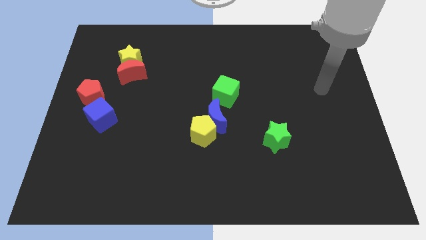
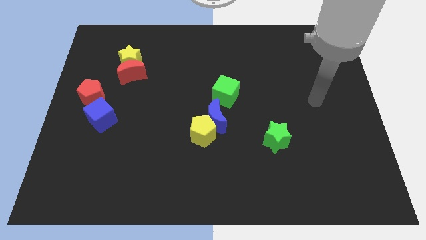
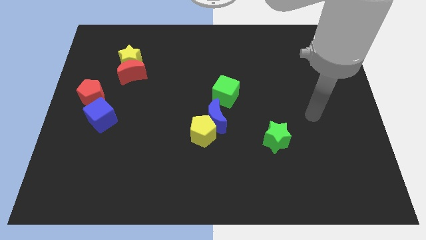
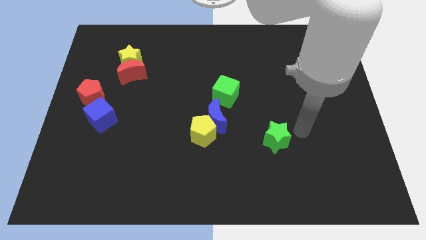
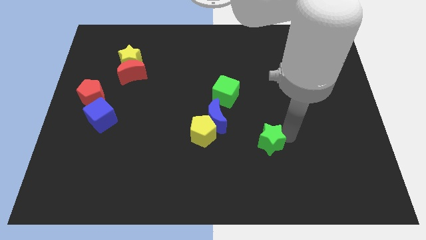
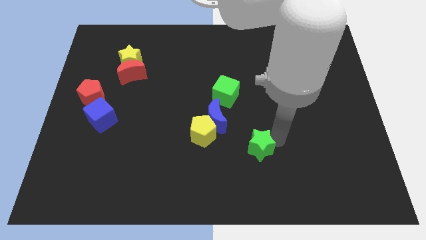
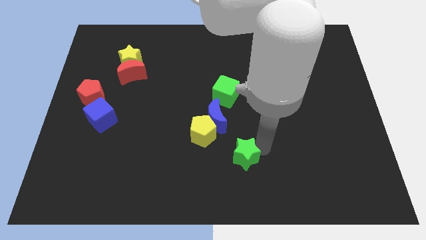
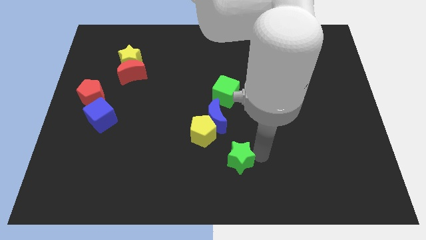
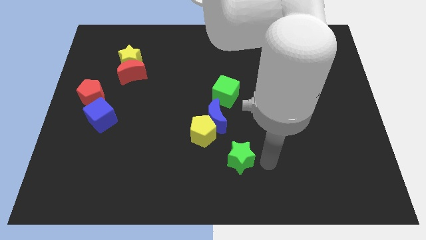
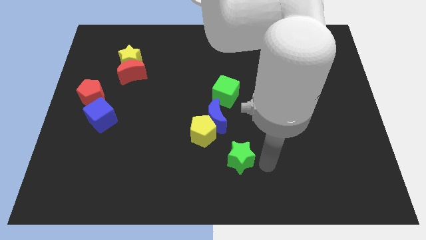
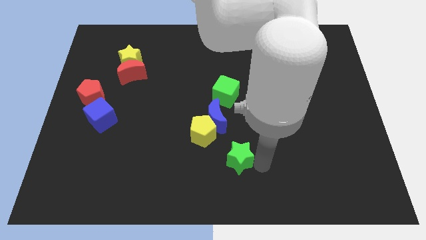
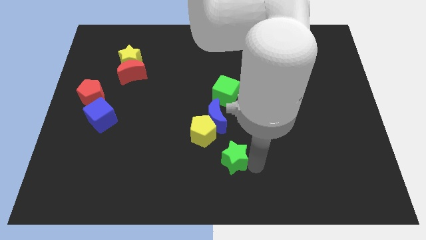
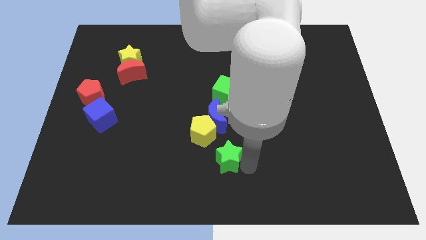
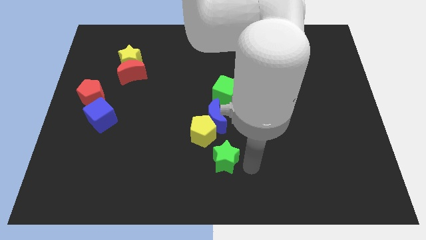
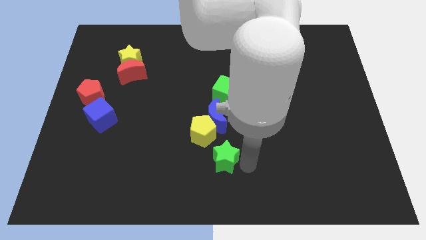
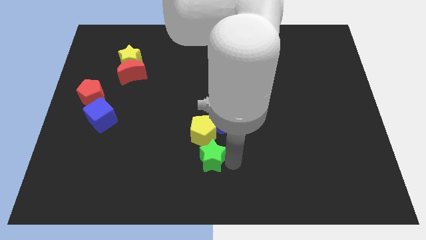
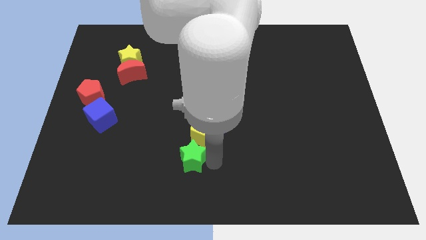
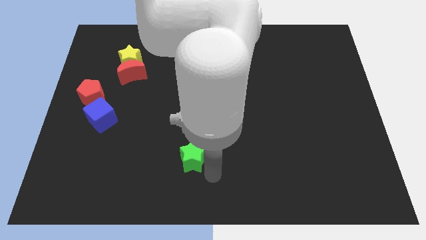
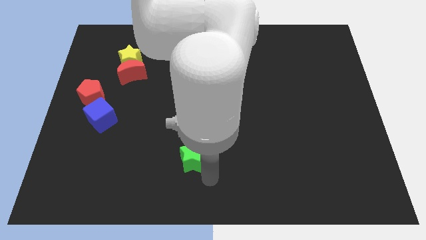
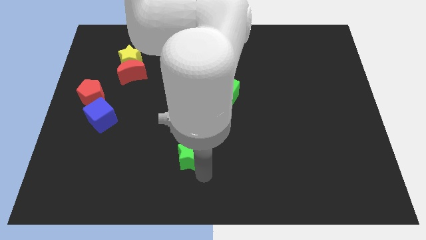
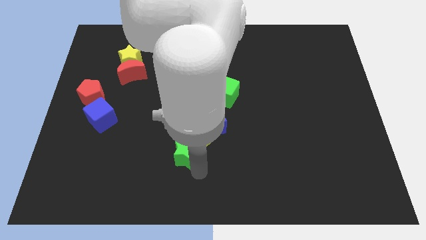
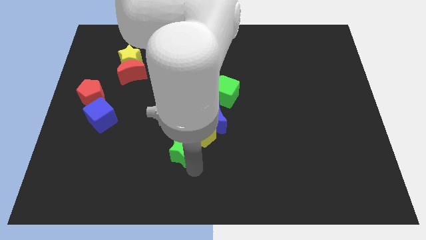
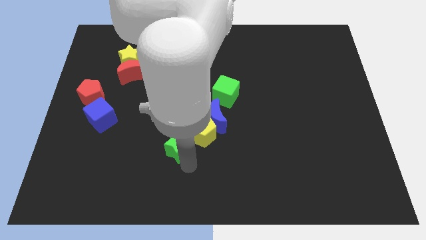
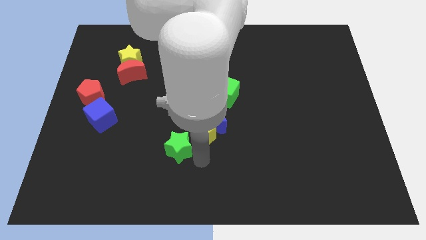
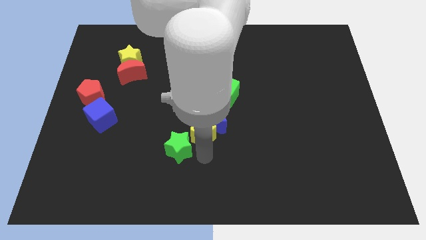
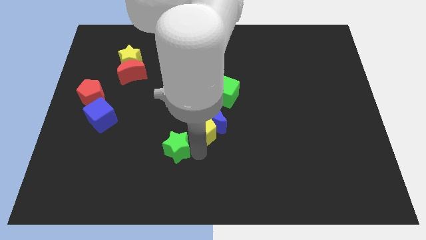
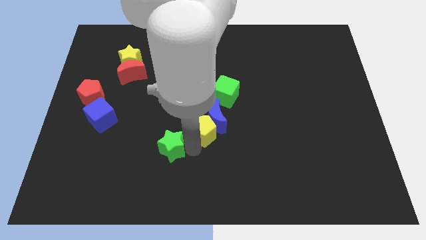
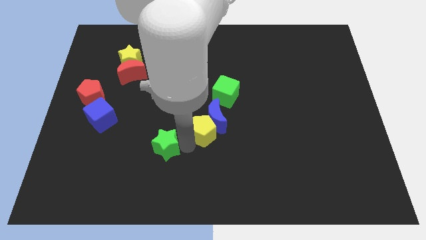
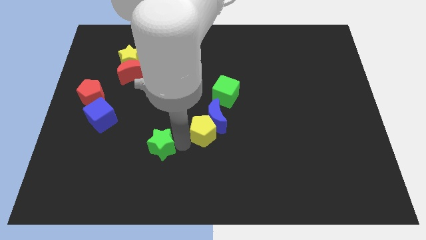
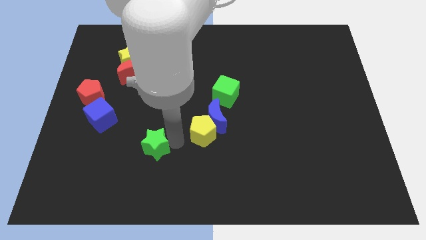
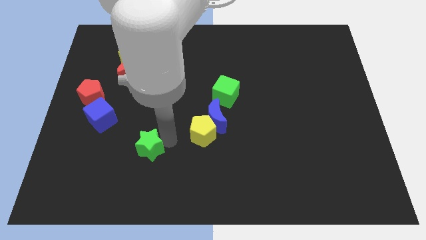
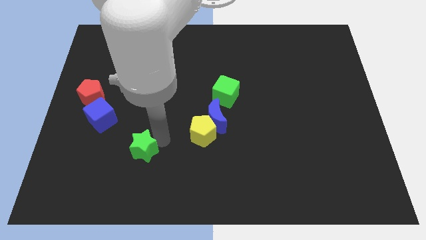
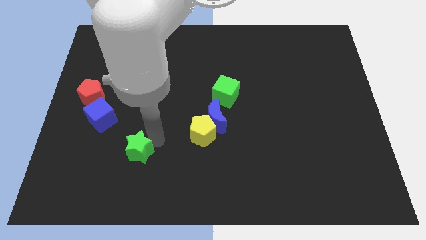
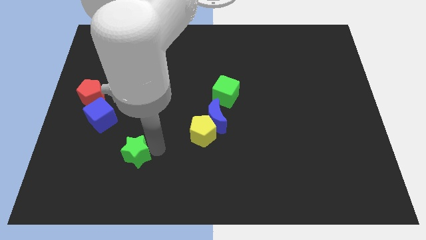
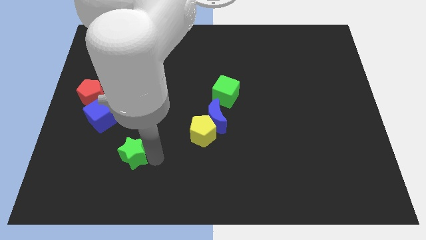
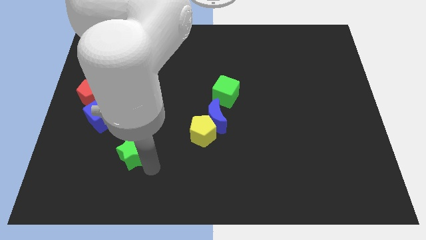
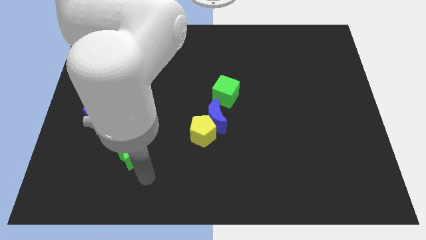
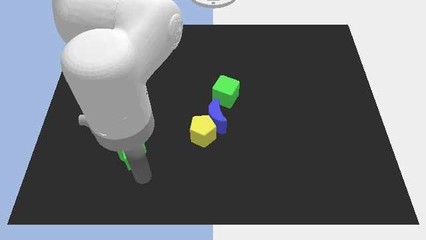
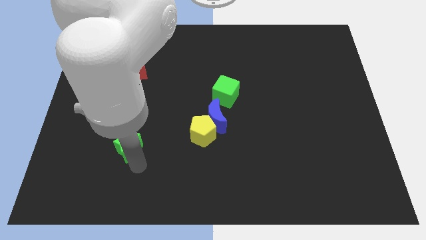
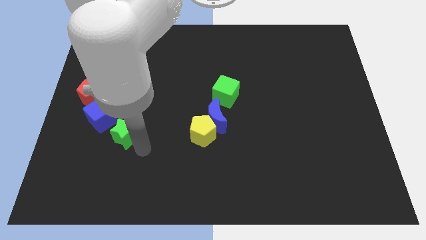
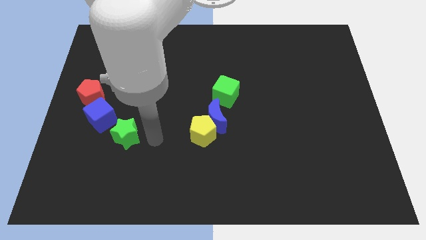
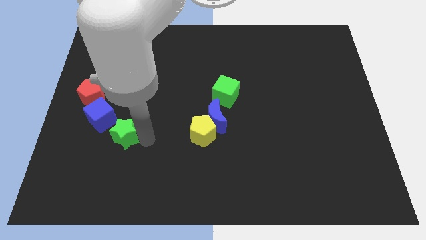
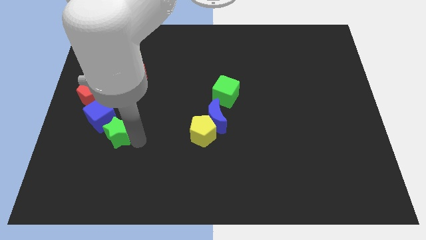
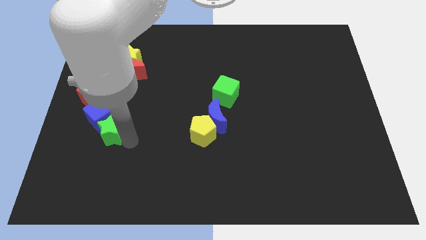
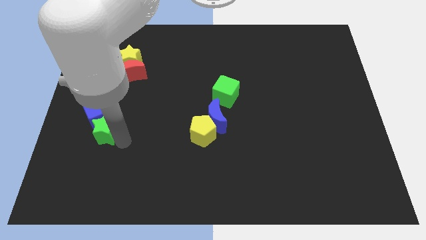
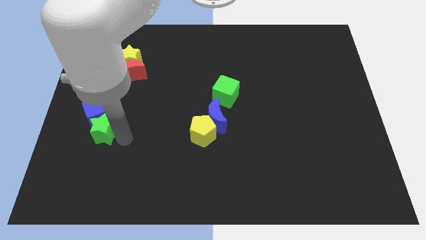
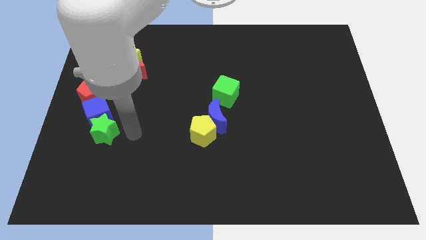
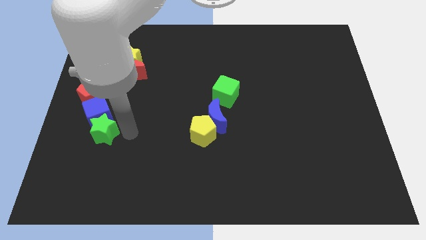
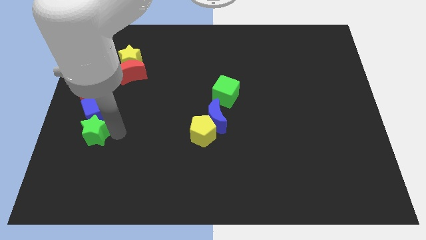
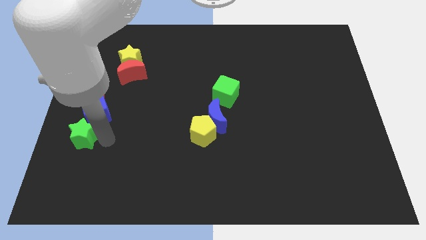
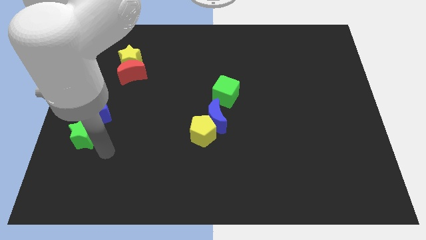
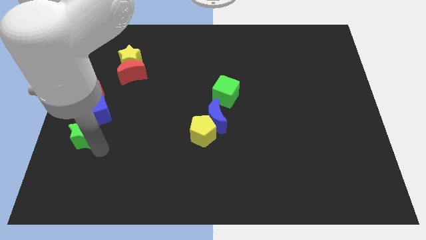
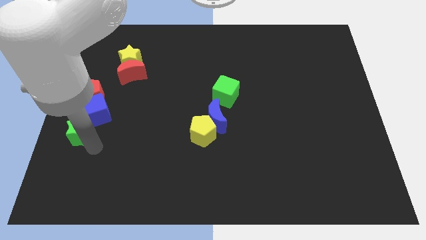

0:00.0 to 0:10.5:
slide the green star to the left side
